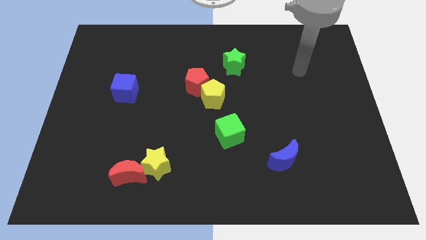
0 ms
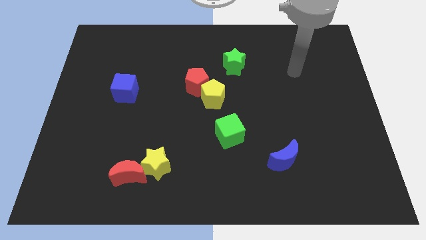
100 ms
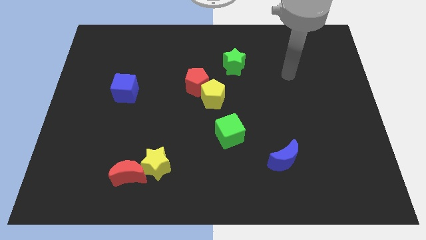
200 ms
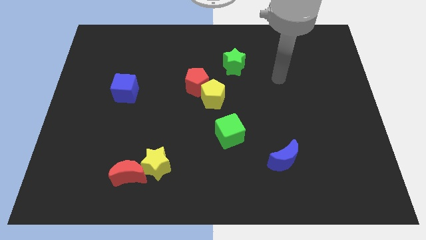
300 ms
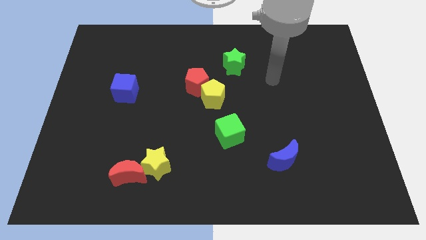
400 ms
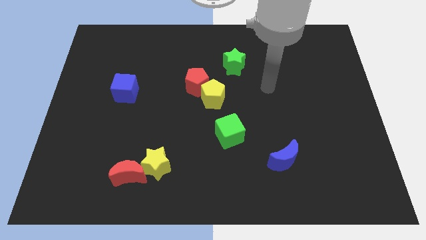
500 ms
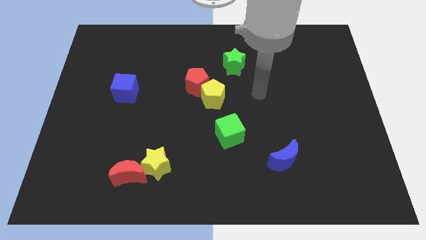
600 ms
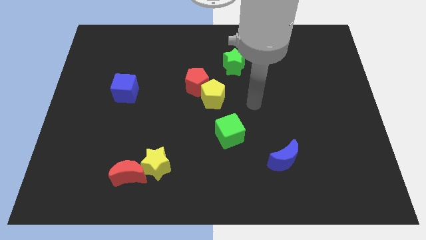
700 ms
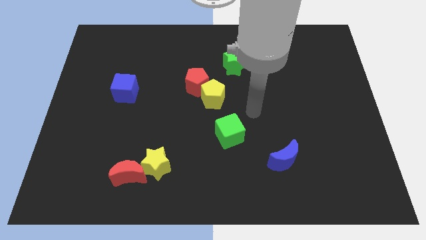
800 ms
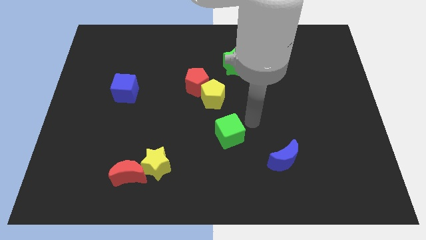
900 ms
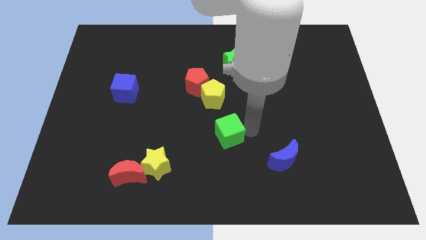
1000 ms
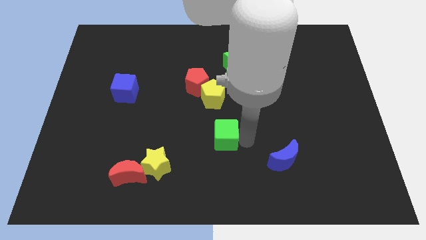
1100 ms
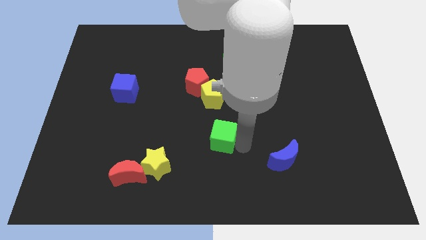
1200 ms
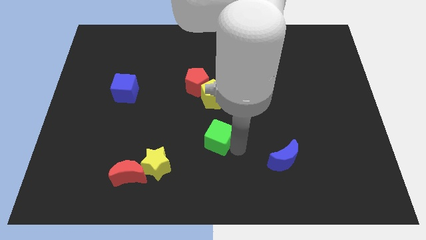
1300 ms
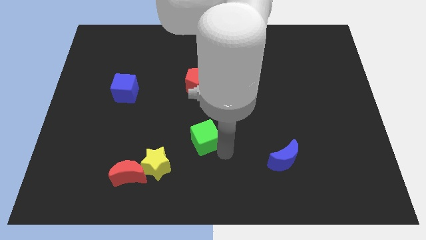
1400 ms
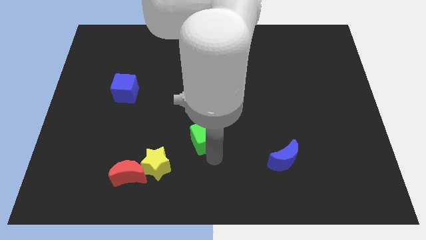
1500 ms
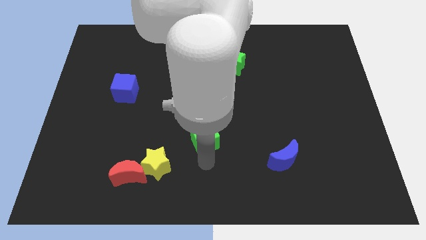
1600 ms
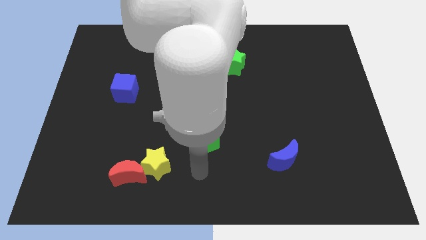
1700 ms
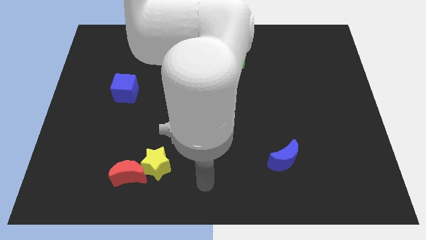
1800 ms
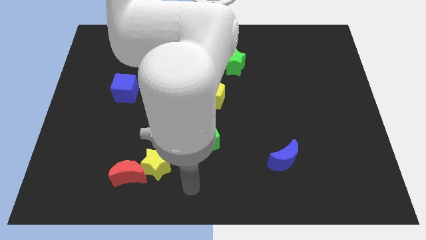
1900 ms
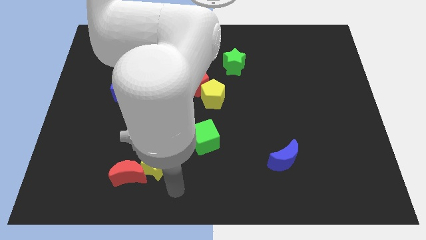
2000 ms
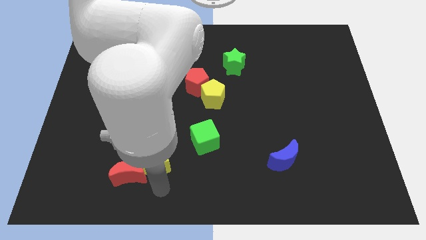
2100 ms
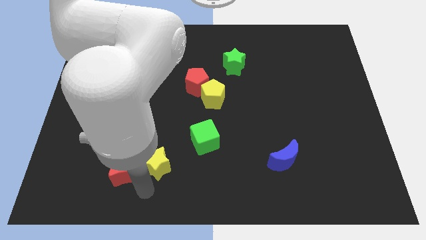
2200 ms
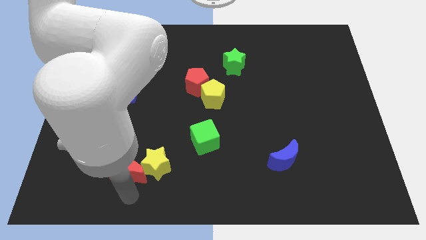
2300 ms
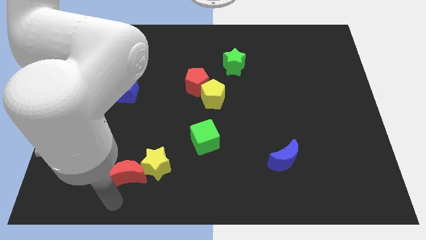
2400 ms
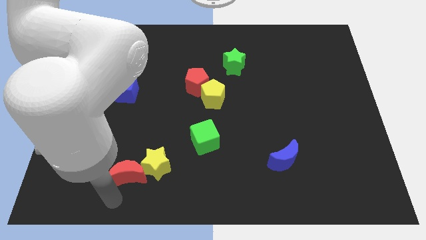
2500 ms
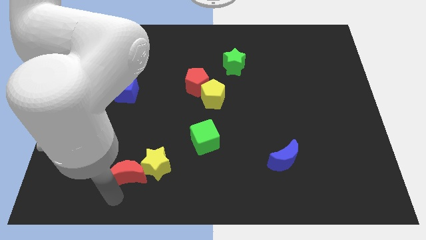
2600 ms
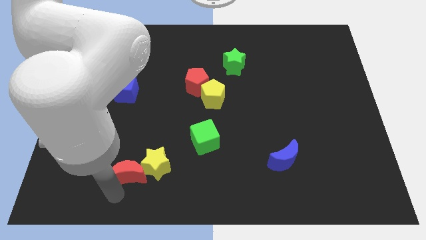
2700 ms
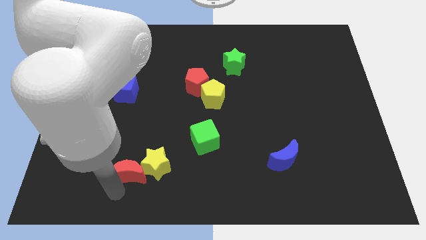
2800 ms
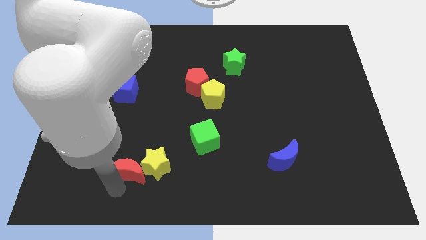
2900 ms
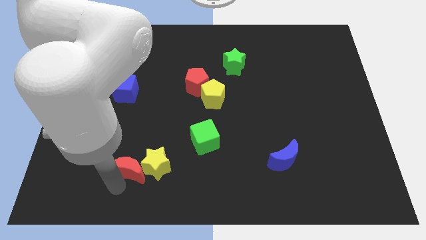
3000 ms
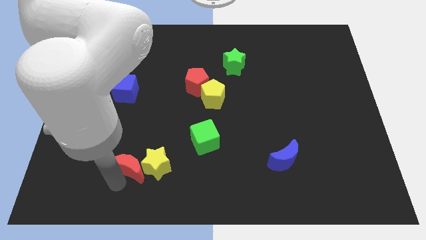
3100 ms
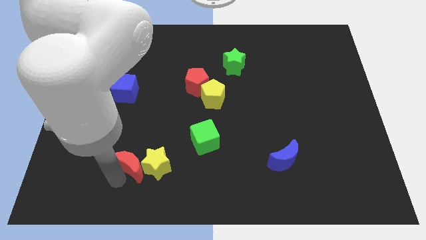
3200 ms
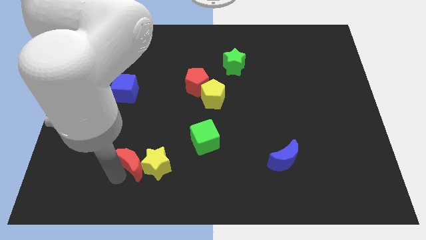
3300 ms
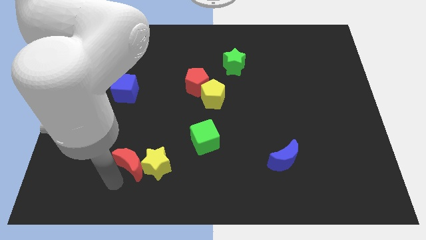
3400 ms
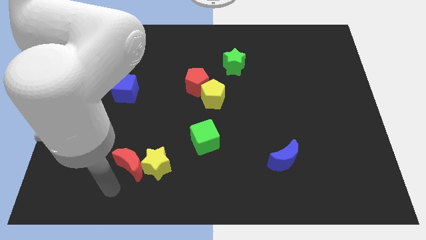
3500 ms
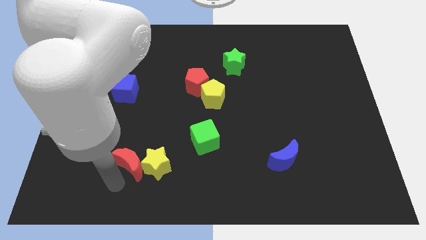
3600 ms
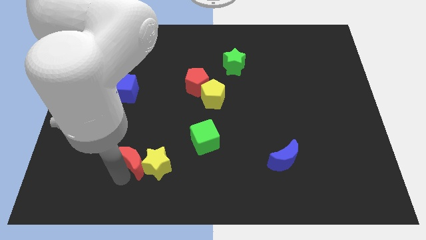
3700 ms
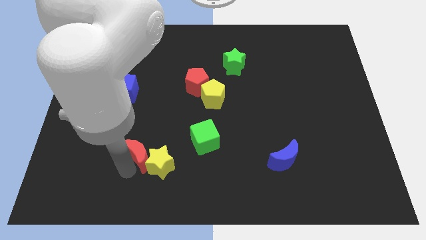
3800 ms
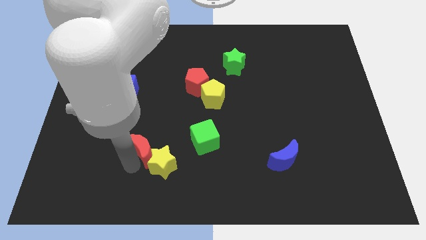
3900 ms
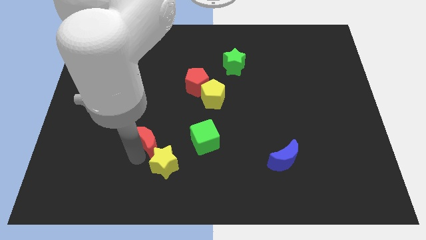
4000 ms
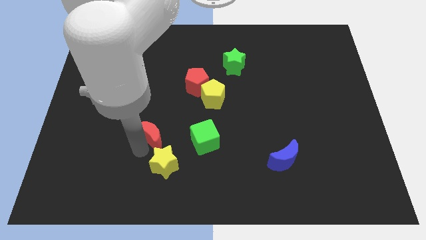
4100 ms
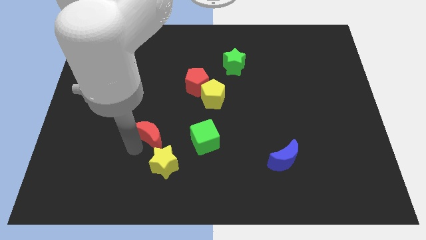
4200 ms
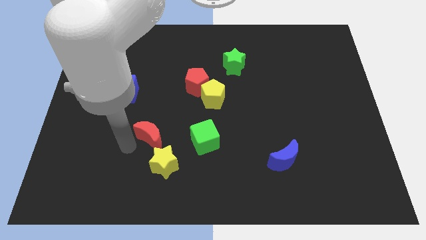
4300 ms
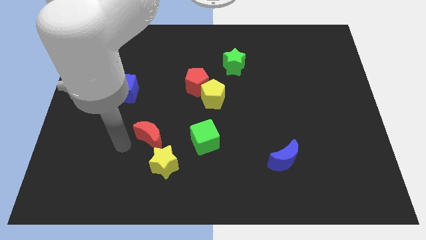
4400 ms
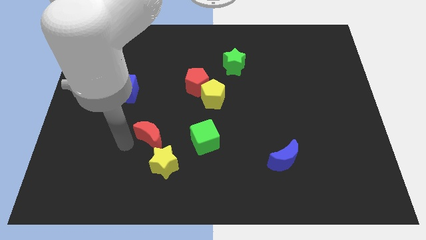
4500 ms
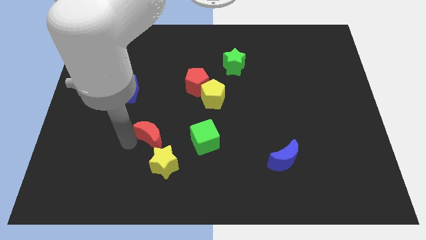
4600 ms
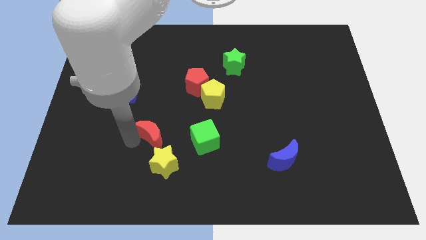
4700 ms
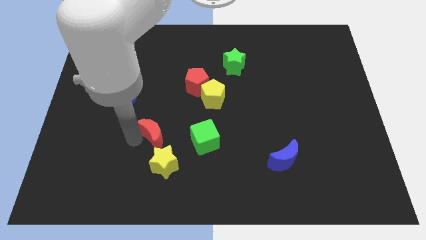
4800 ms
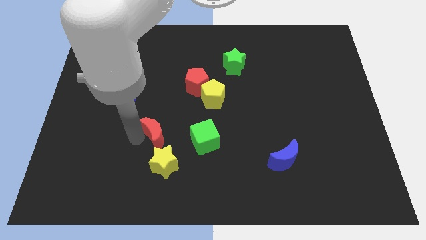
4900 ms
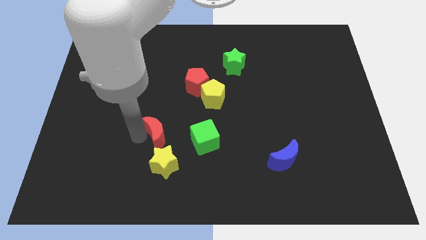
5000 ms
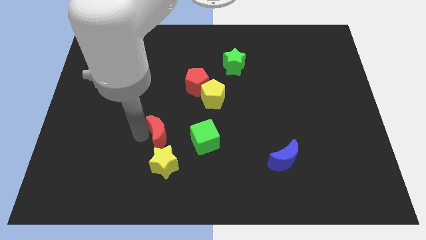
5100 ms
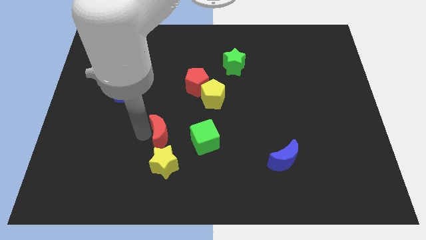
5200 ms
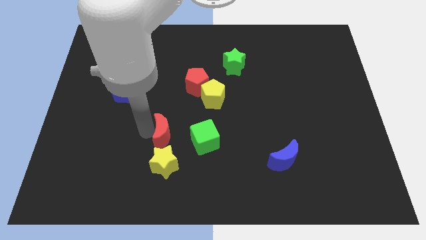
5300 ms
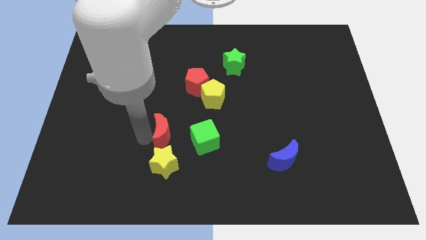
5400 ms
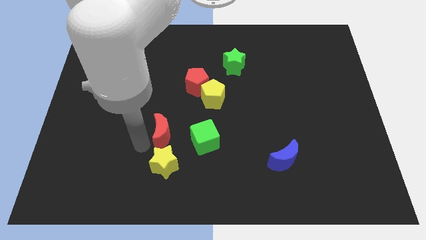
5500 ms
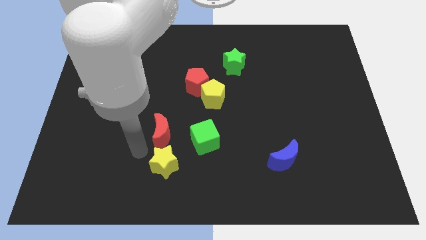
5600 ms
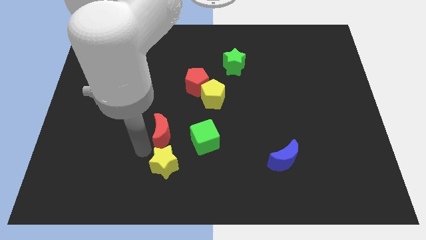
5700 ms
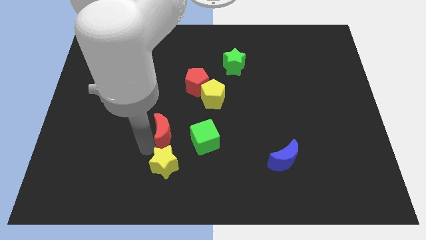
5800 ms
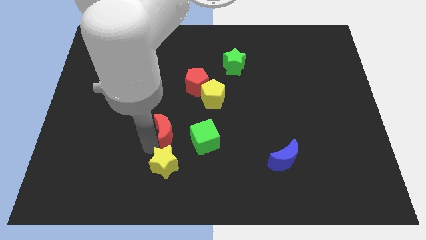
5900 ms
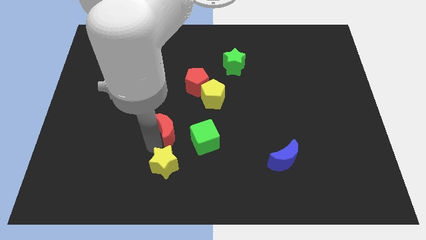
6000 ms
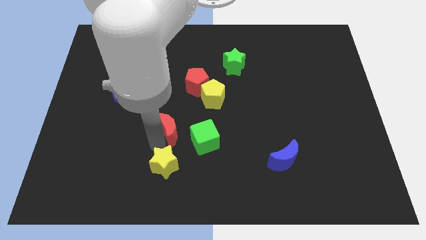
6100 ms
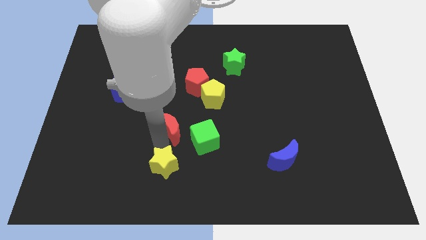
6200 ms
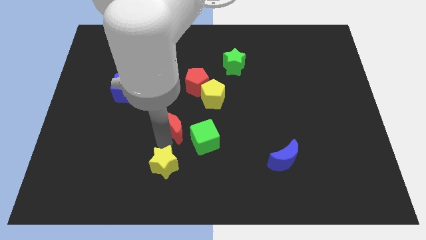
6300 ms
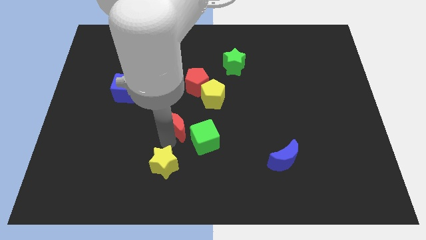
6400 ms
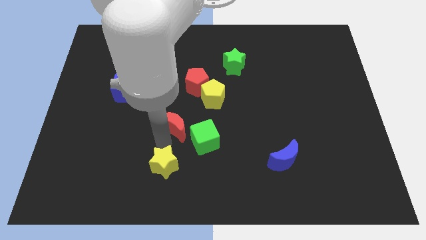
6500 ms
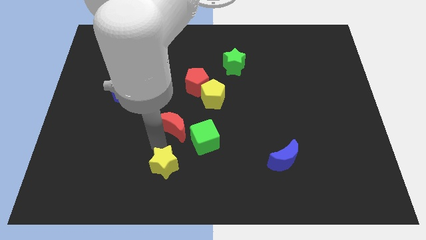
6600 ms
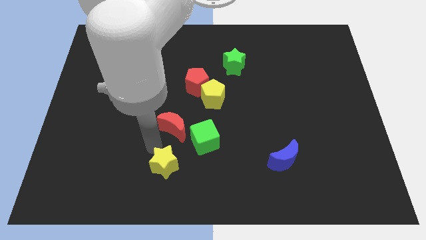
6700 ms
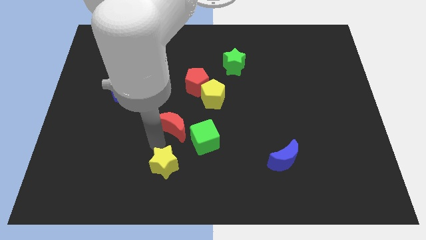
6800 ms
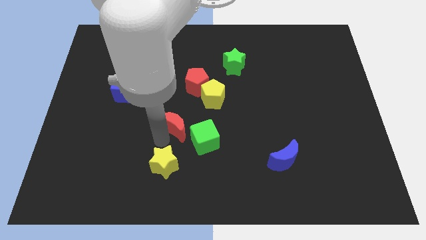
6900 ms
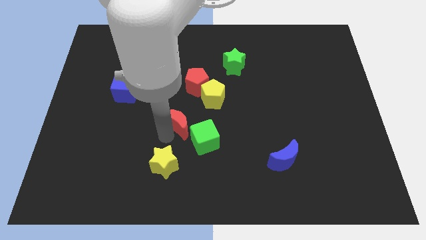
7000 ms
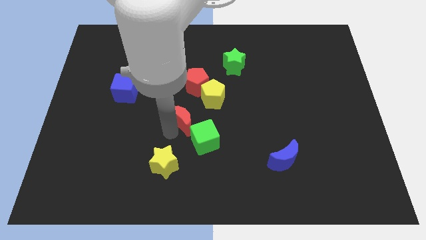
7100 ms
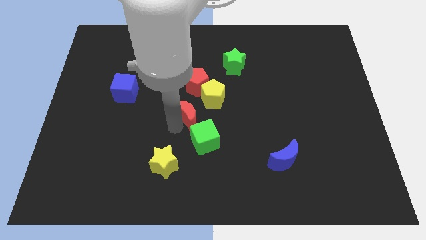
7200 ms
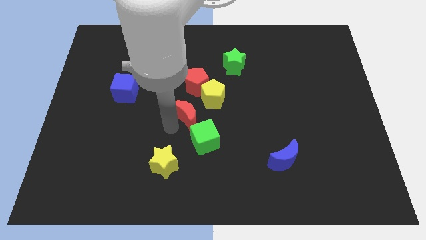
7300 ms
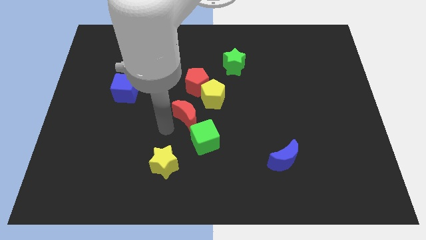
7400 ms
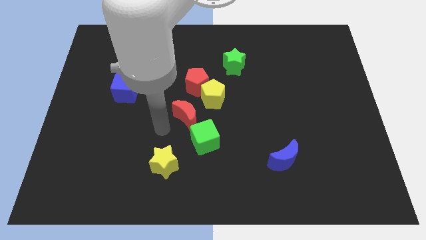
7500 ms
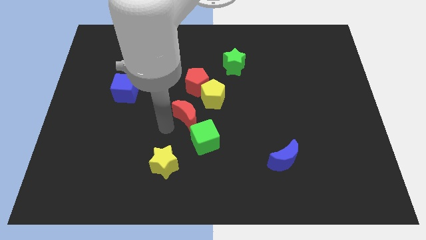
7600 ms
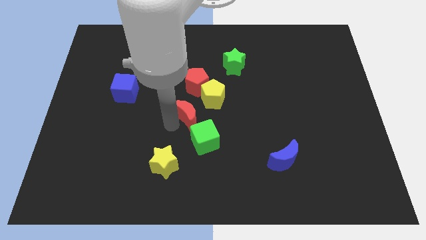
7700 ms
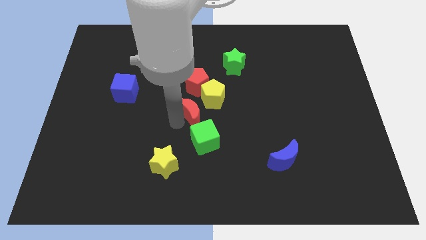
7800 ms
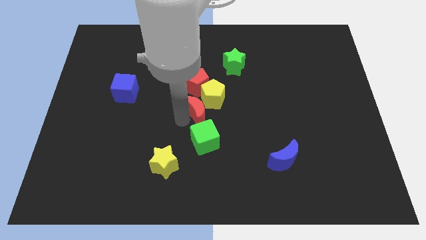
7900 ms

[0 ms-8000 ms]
move the red moon to the yellow pentagon
